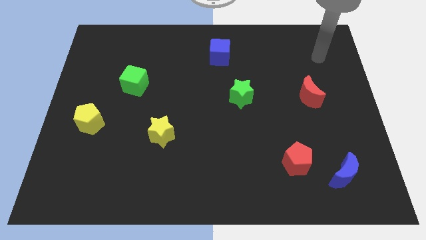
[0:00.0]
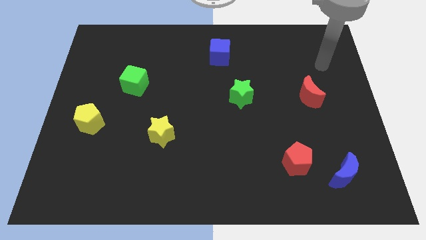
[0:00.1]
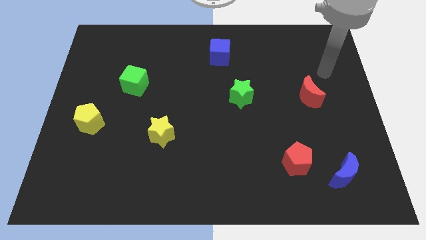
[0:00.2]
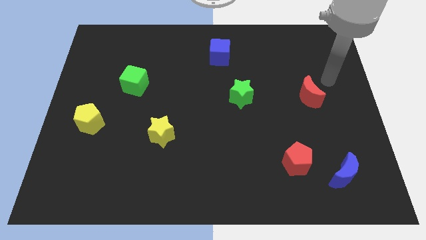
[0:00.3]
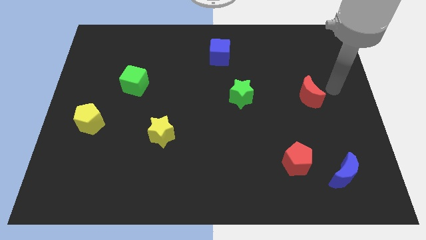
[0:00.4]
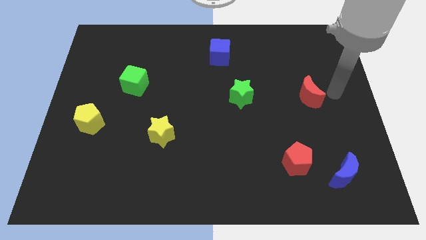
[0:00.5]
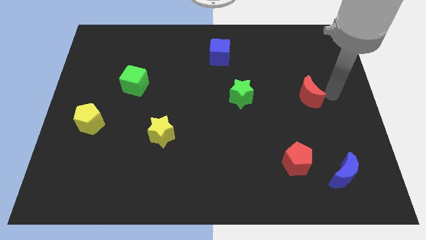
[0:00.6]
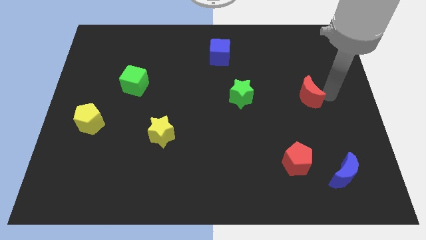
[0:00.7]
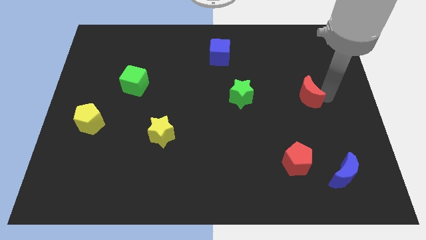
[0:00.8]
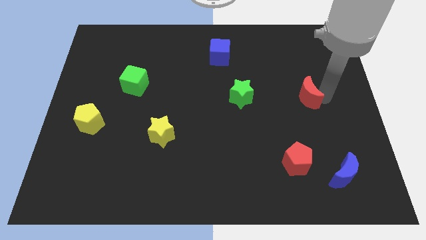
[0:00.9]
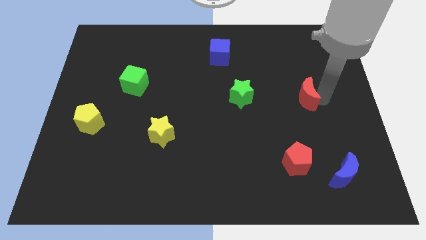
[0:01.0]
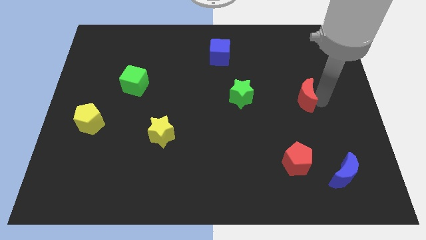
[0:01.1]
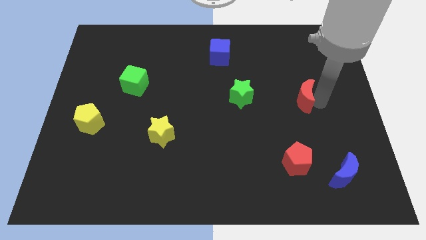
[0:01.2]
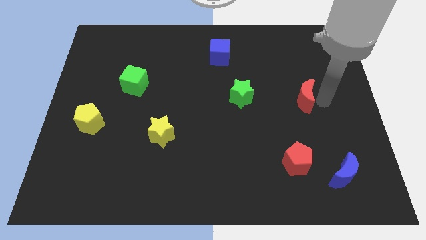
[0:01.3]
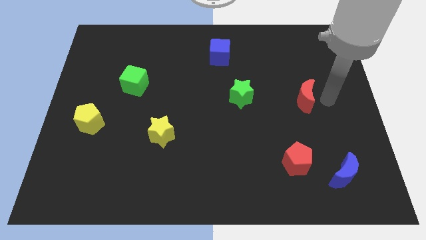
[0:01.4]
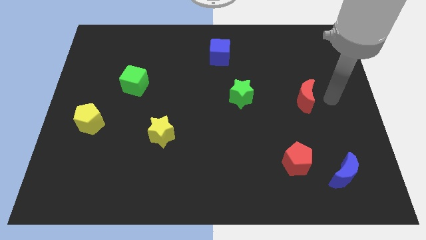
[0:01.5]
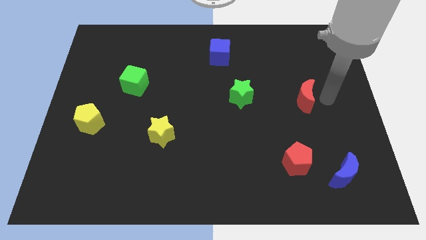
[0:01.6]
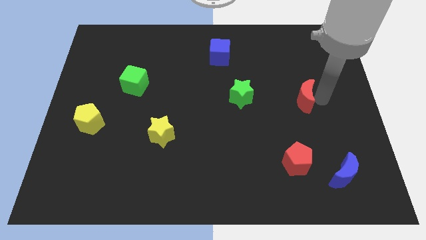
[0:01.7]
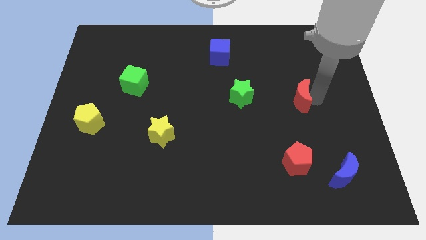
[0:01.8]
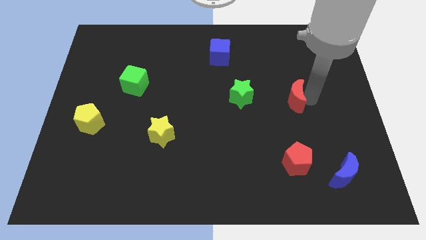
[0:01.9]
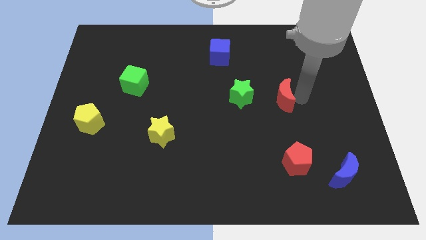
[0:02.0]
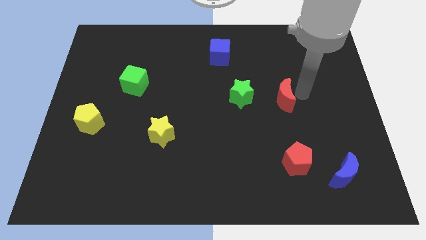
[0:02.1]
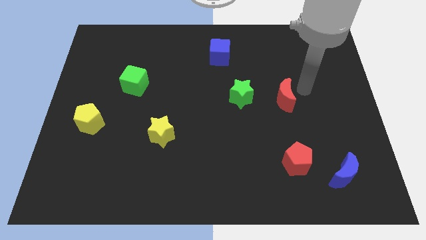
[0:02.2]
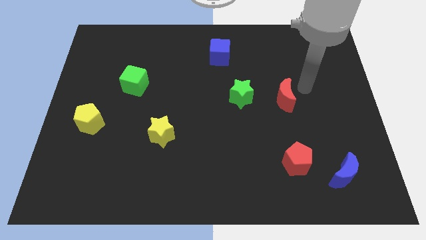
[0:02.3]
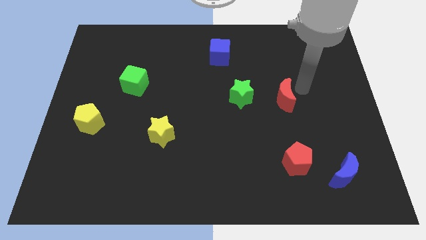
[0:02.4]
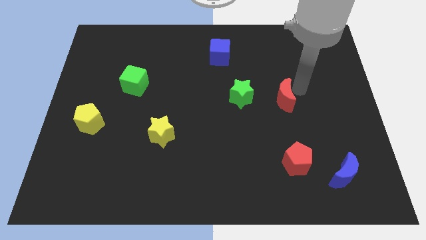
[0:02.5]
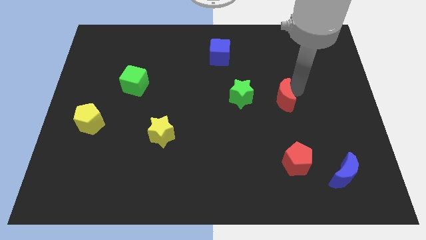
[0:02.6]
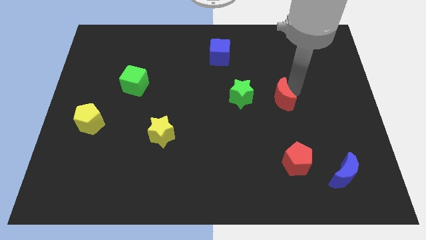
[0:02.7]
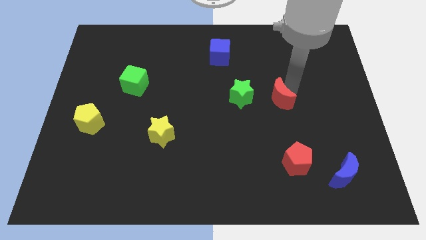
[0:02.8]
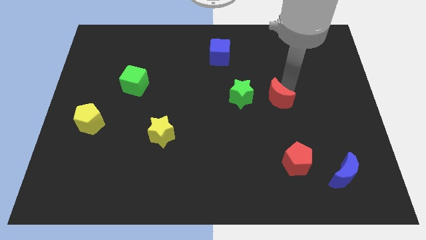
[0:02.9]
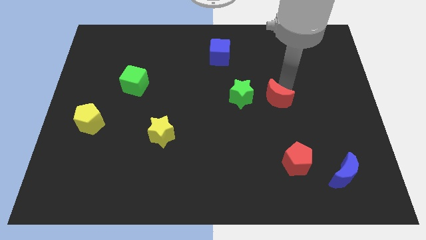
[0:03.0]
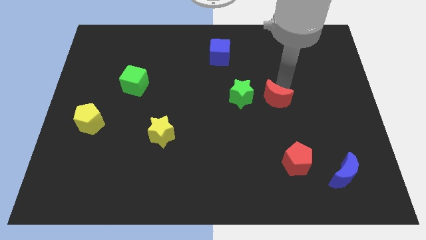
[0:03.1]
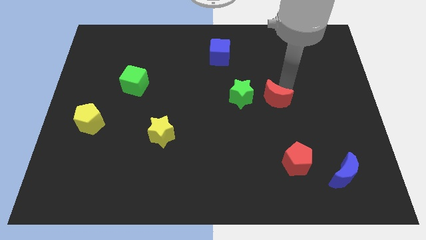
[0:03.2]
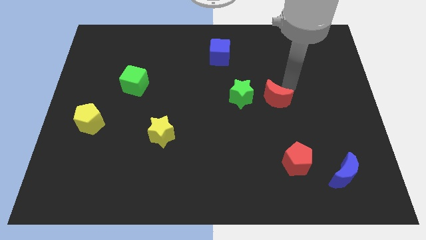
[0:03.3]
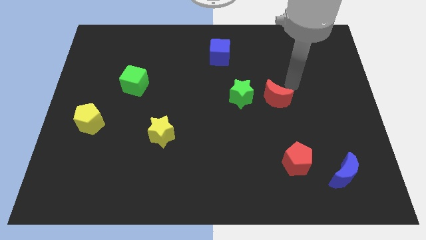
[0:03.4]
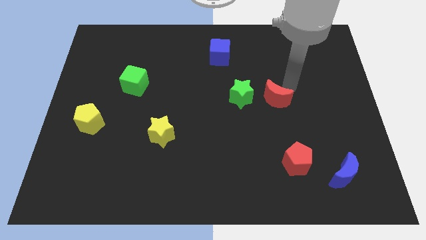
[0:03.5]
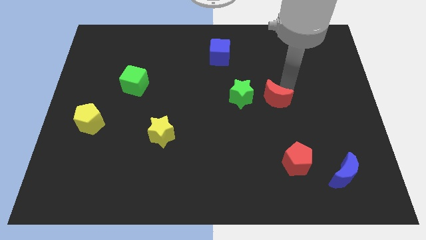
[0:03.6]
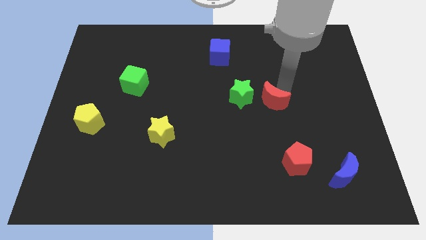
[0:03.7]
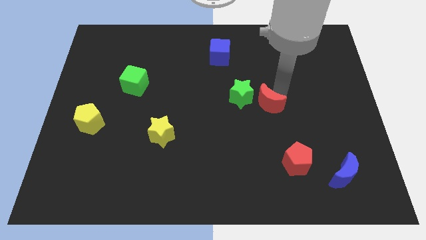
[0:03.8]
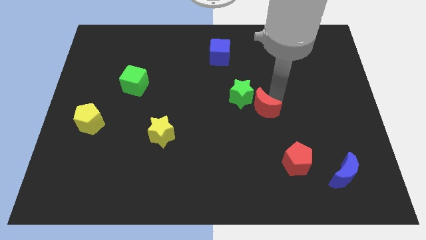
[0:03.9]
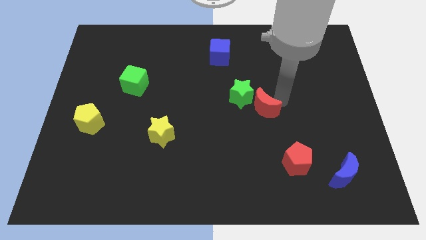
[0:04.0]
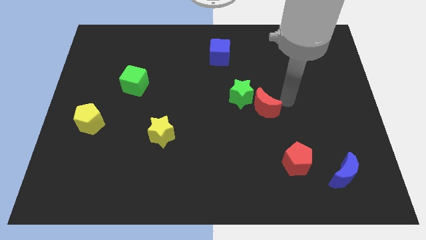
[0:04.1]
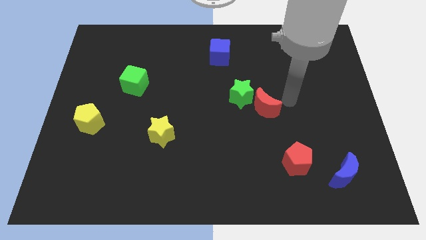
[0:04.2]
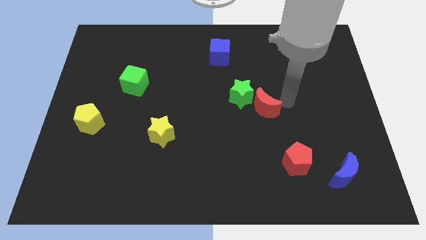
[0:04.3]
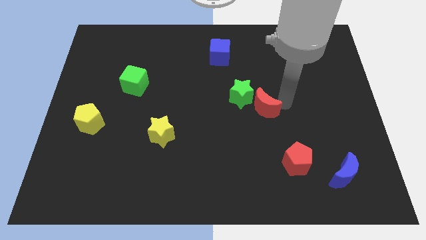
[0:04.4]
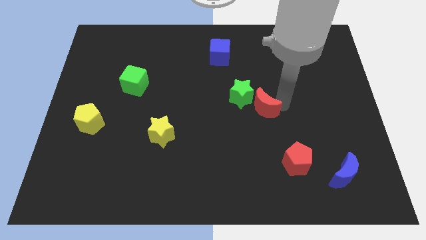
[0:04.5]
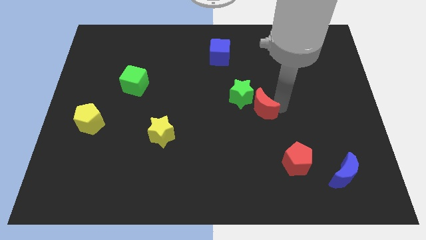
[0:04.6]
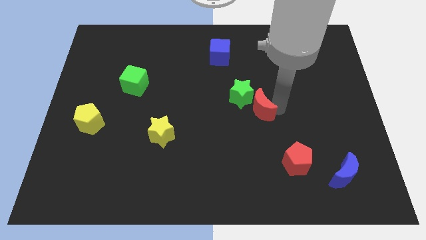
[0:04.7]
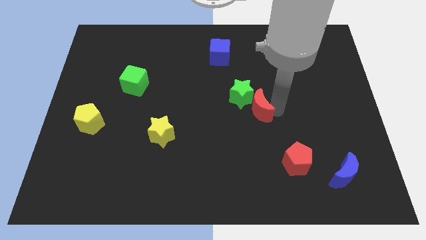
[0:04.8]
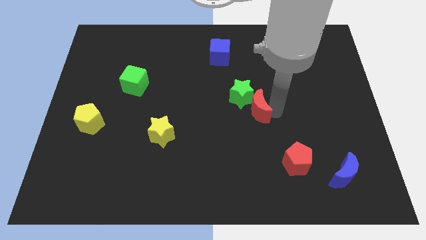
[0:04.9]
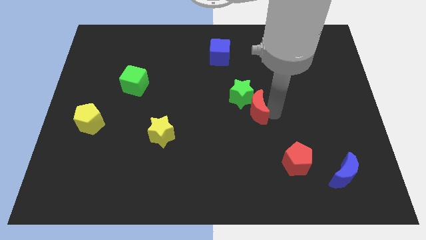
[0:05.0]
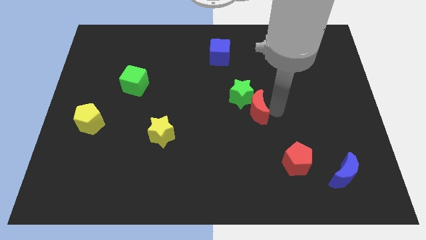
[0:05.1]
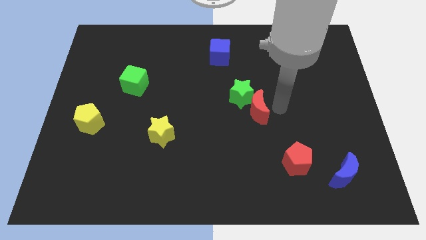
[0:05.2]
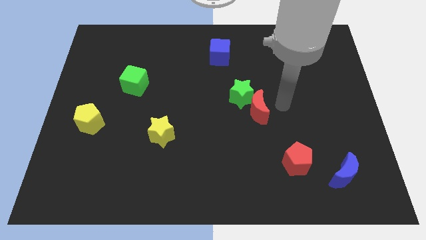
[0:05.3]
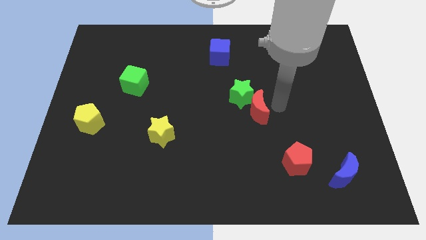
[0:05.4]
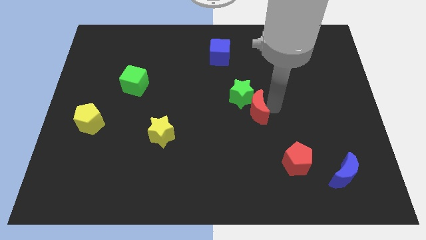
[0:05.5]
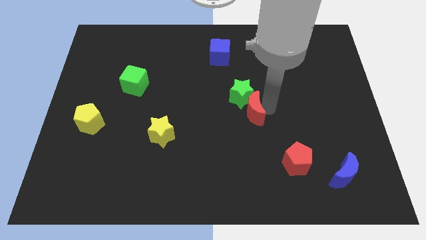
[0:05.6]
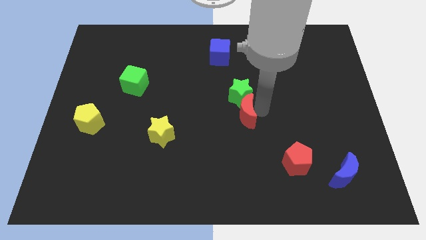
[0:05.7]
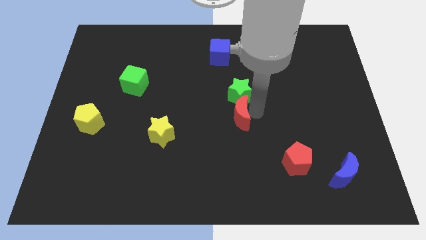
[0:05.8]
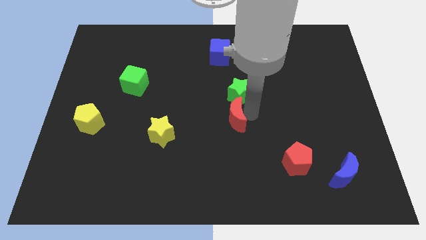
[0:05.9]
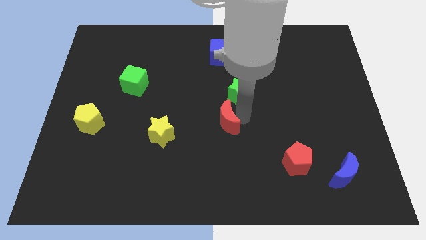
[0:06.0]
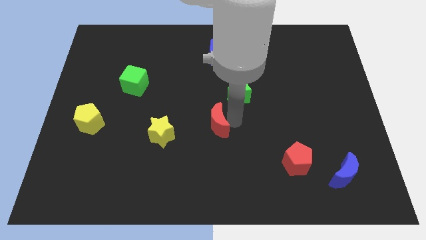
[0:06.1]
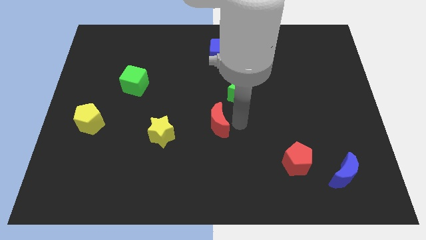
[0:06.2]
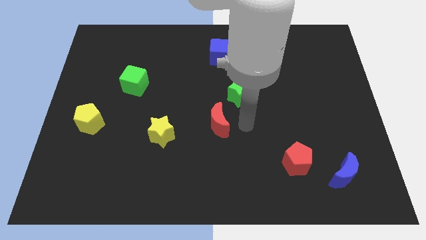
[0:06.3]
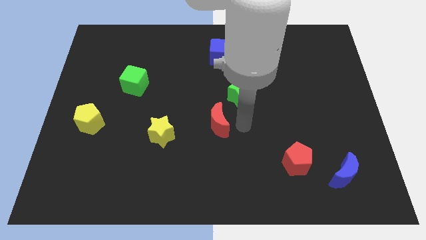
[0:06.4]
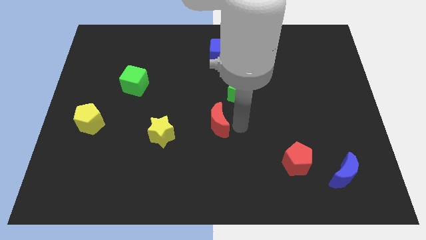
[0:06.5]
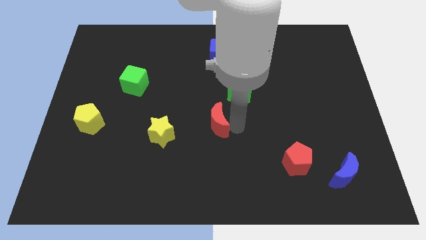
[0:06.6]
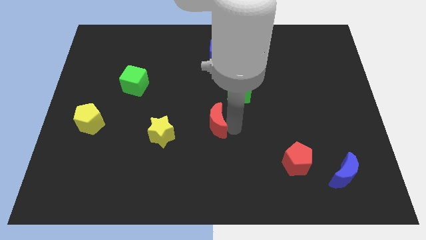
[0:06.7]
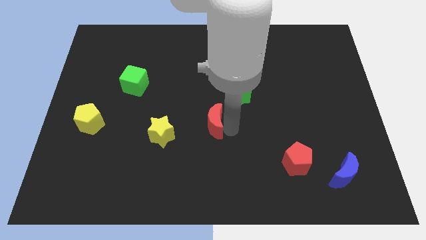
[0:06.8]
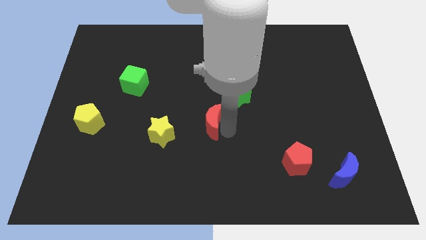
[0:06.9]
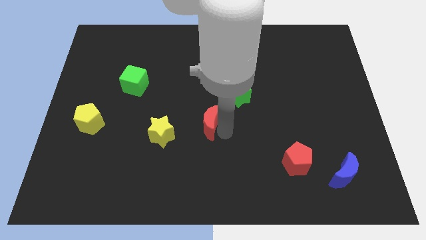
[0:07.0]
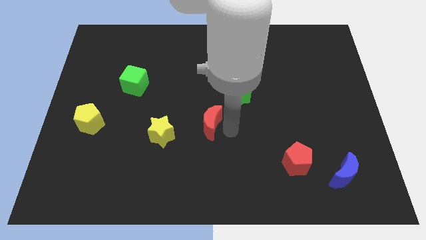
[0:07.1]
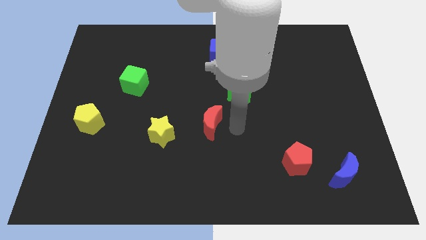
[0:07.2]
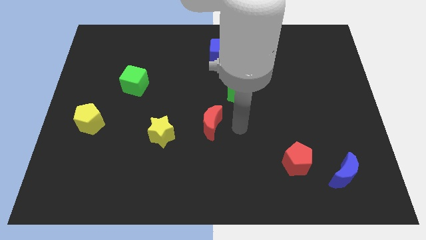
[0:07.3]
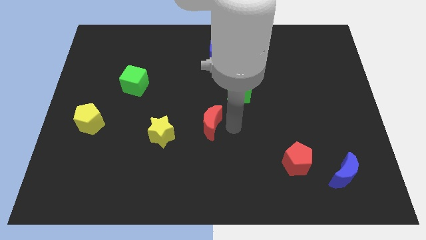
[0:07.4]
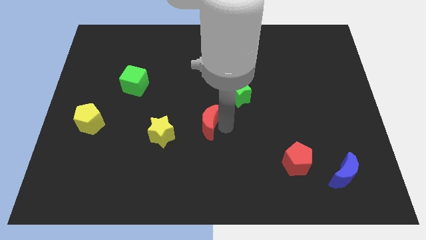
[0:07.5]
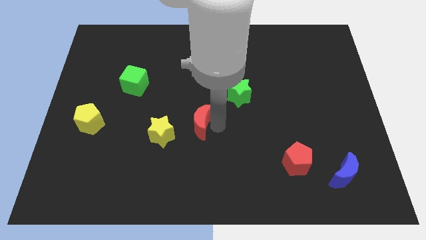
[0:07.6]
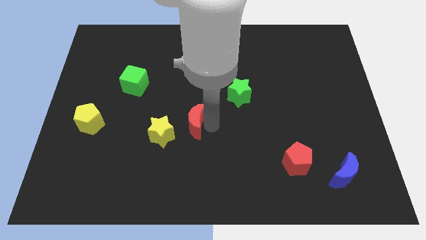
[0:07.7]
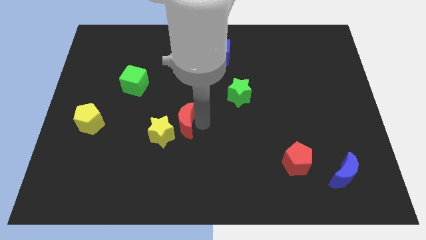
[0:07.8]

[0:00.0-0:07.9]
move the red moon to the yellow star
